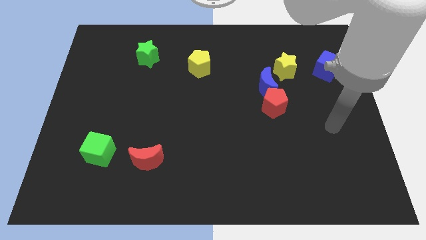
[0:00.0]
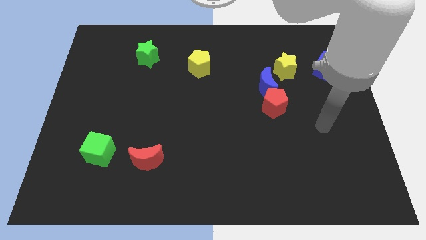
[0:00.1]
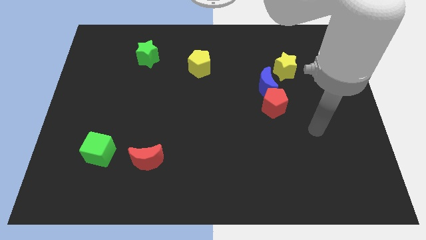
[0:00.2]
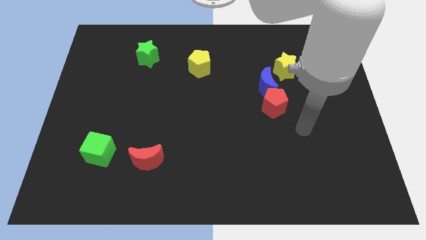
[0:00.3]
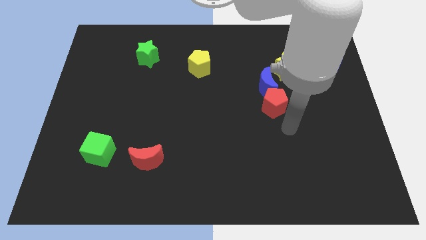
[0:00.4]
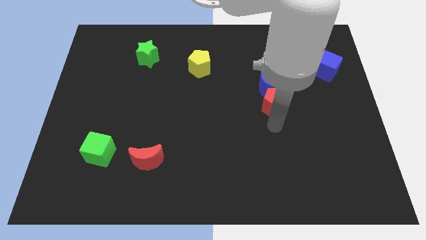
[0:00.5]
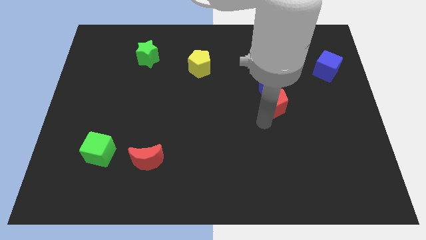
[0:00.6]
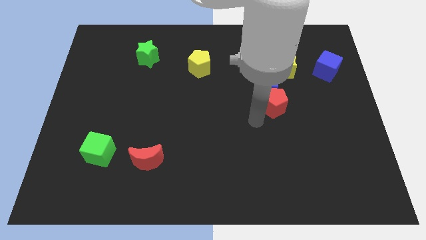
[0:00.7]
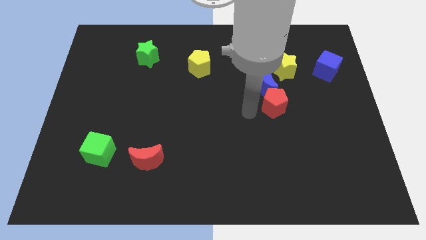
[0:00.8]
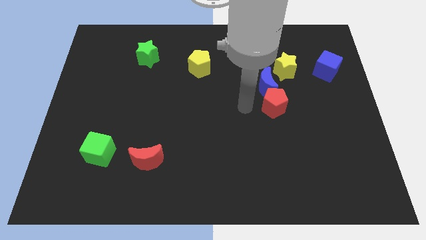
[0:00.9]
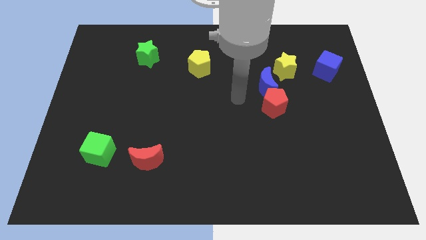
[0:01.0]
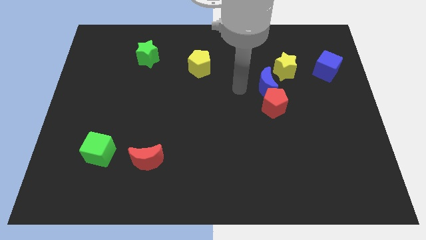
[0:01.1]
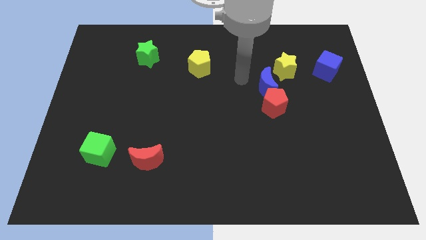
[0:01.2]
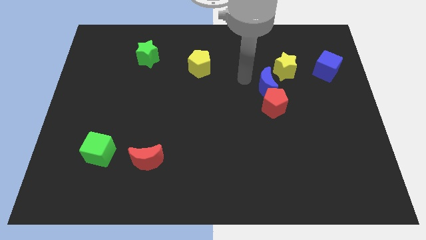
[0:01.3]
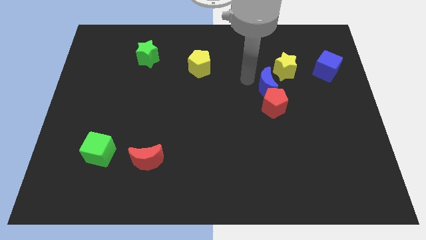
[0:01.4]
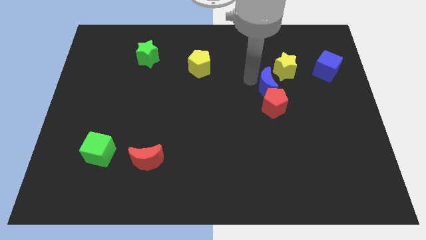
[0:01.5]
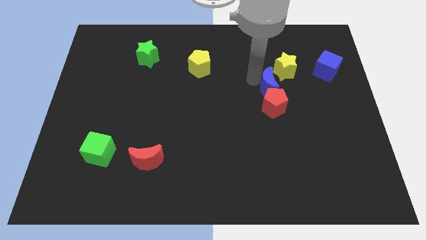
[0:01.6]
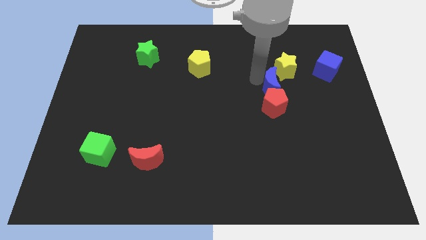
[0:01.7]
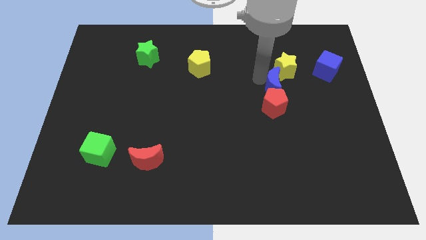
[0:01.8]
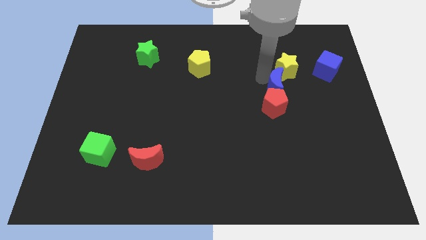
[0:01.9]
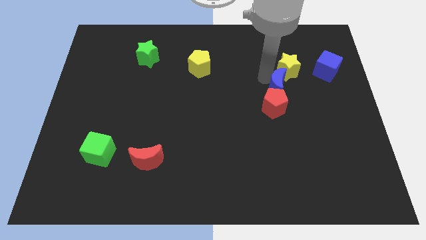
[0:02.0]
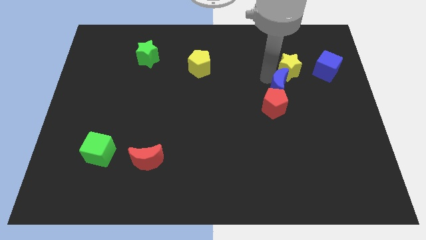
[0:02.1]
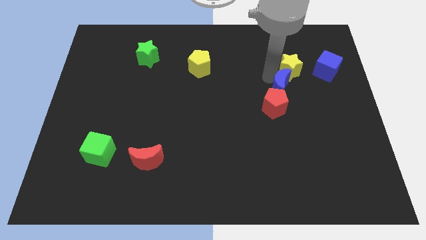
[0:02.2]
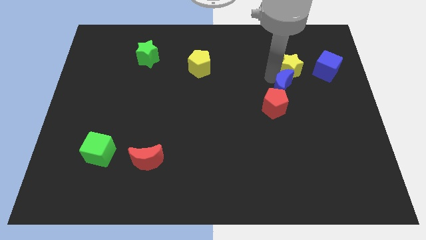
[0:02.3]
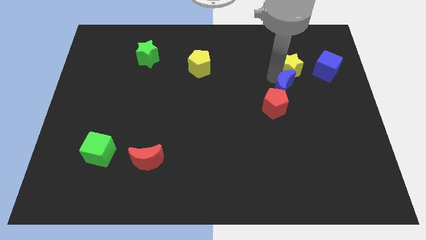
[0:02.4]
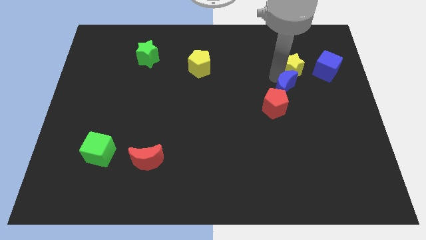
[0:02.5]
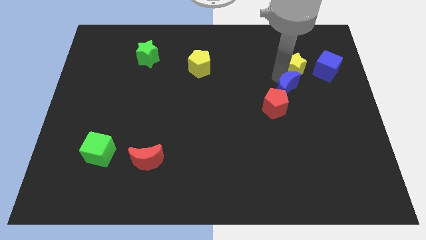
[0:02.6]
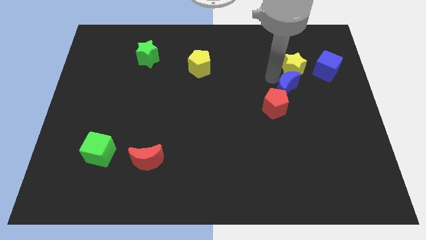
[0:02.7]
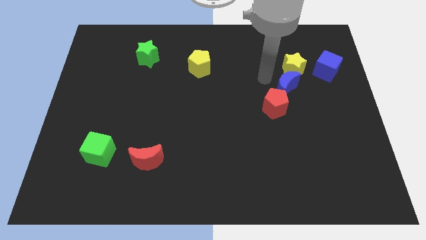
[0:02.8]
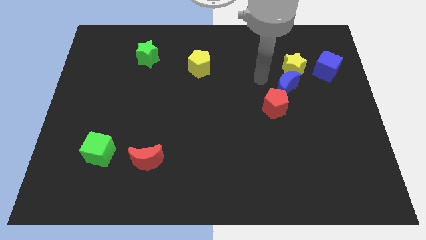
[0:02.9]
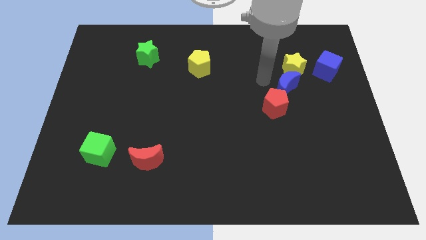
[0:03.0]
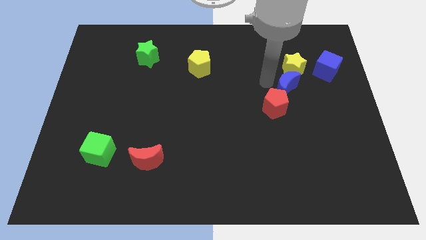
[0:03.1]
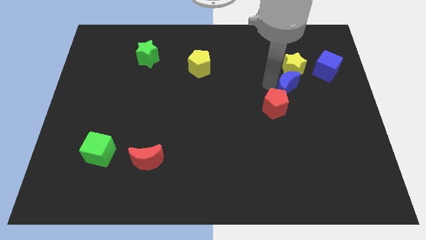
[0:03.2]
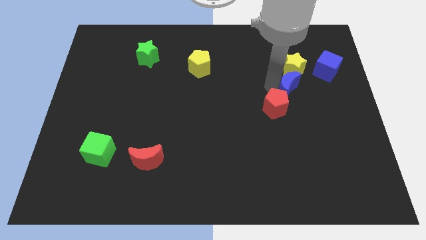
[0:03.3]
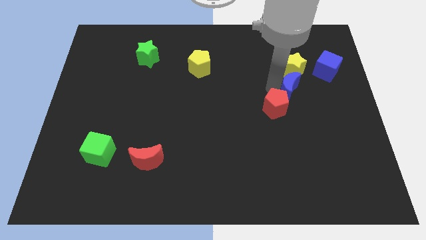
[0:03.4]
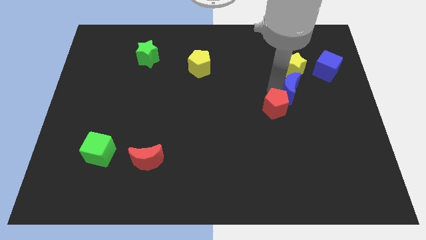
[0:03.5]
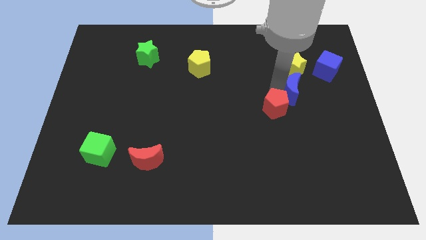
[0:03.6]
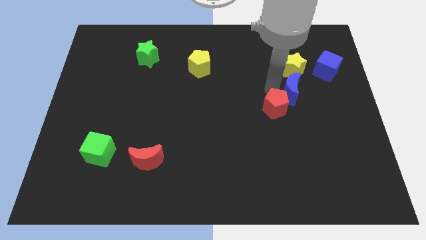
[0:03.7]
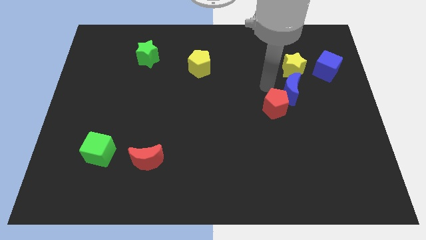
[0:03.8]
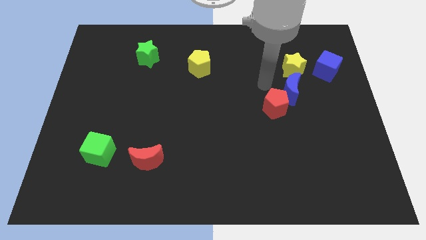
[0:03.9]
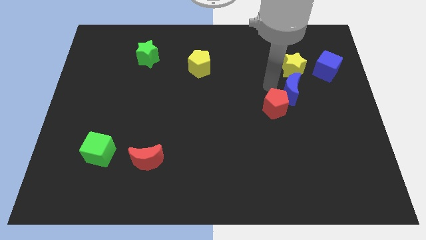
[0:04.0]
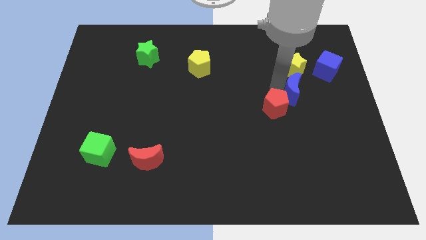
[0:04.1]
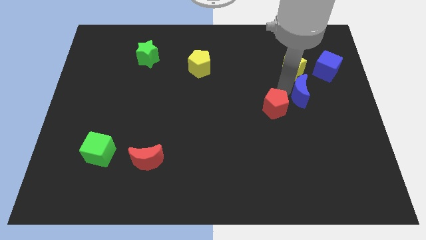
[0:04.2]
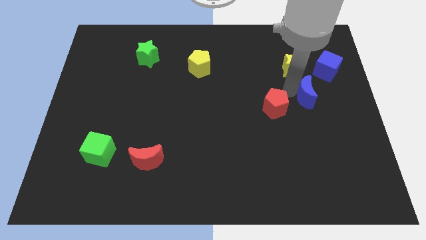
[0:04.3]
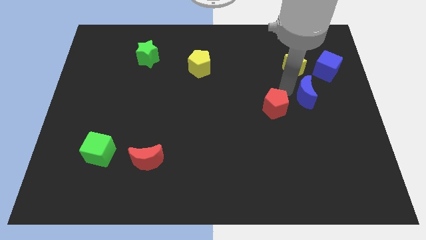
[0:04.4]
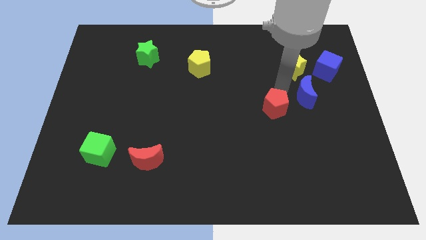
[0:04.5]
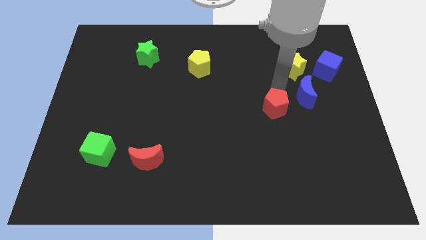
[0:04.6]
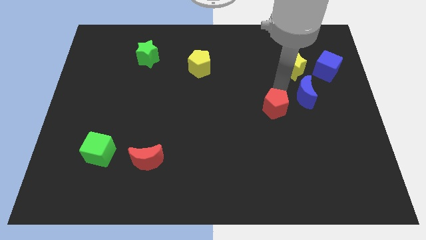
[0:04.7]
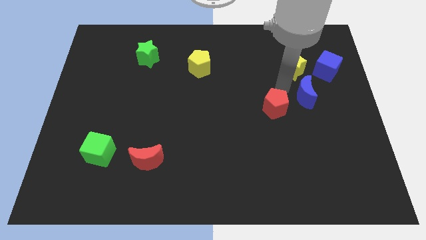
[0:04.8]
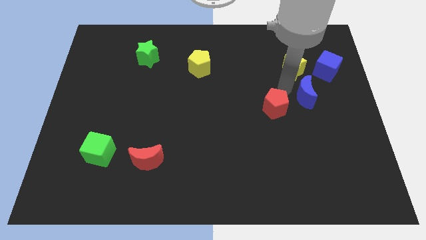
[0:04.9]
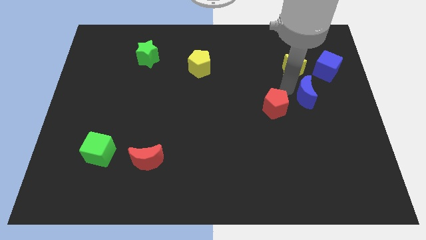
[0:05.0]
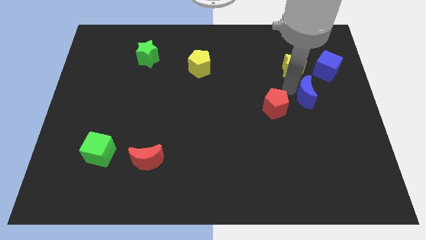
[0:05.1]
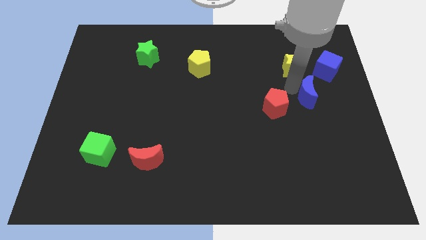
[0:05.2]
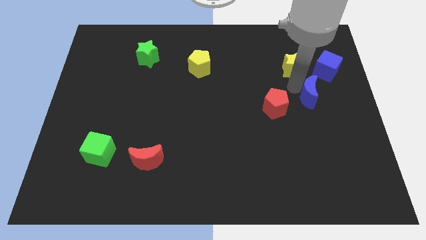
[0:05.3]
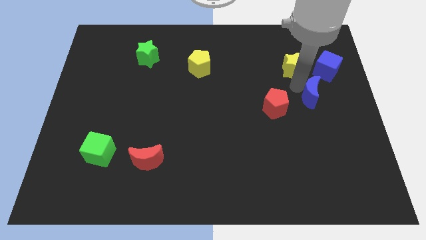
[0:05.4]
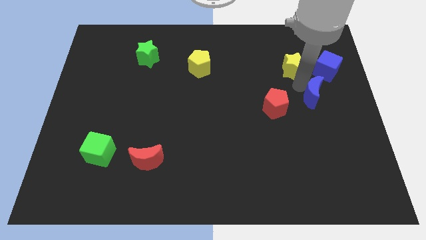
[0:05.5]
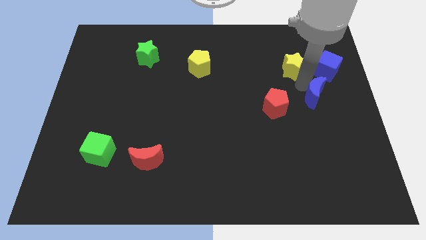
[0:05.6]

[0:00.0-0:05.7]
put the blue moon to the bottom of the blue cube

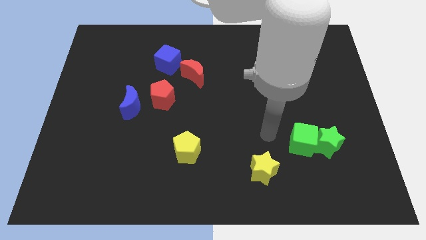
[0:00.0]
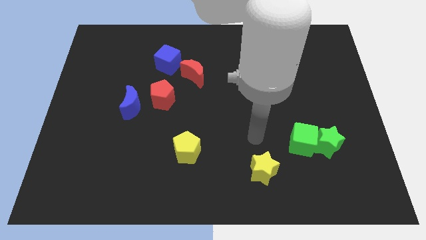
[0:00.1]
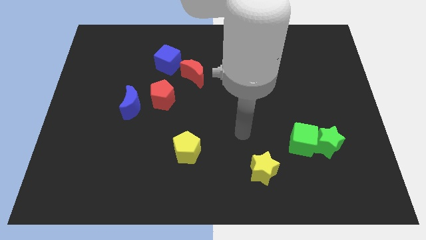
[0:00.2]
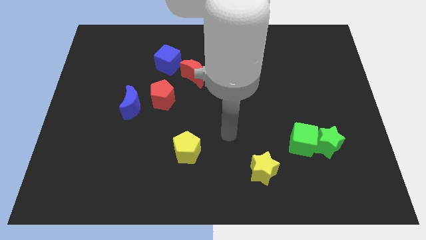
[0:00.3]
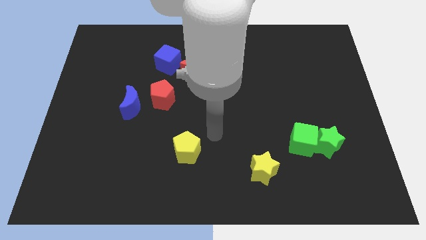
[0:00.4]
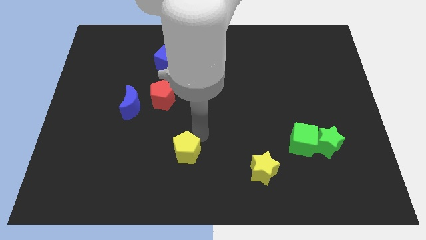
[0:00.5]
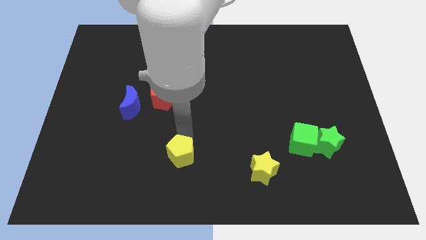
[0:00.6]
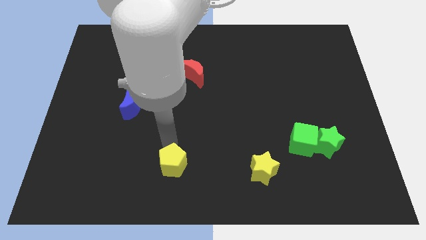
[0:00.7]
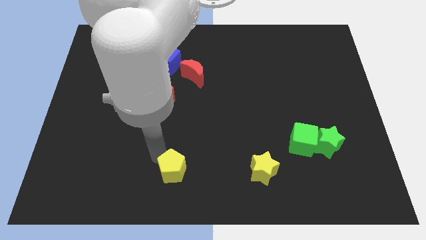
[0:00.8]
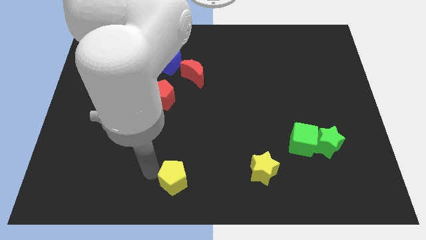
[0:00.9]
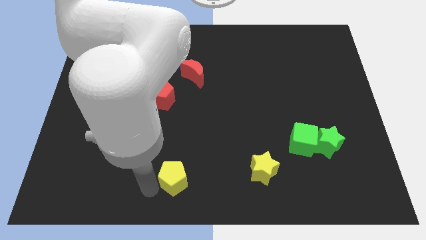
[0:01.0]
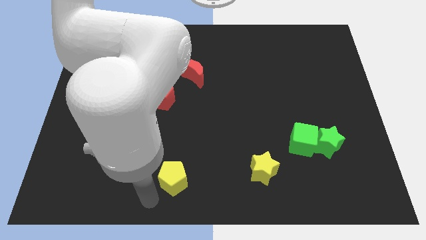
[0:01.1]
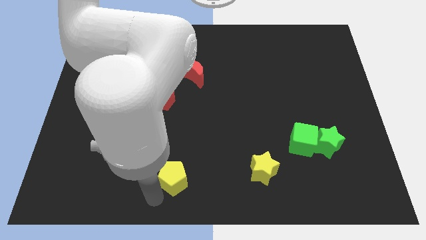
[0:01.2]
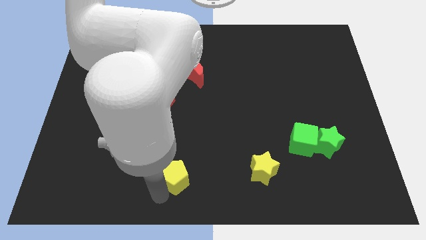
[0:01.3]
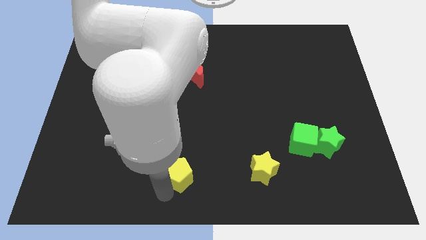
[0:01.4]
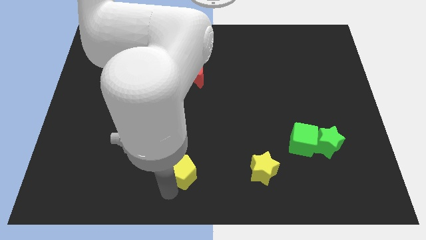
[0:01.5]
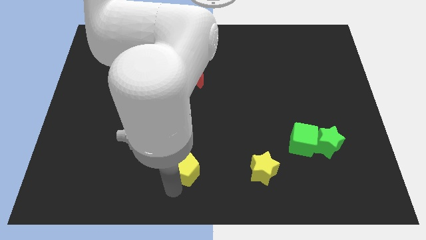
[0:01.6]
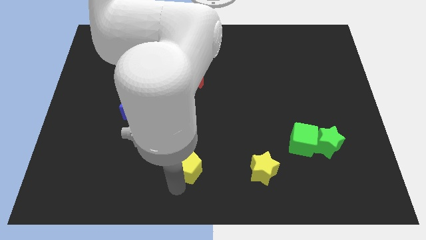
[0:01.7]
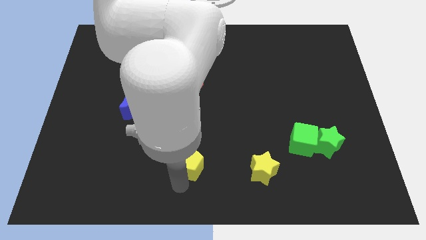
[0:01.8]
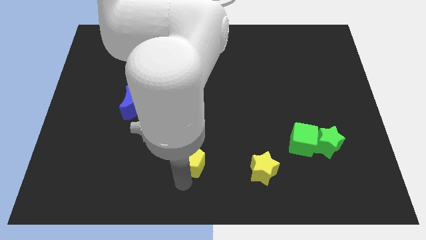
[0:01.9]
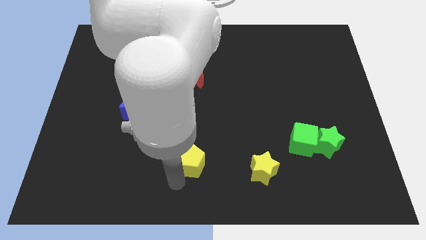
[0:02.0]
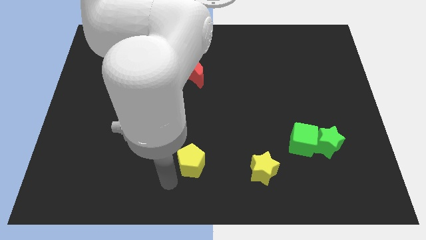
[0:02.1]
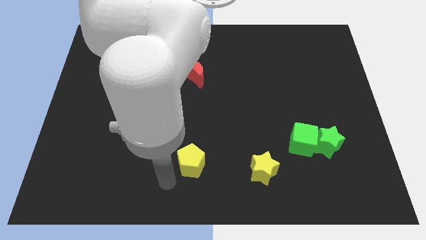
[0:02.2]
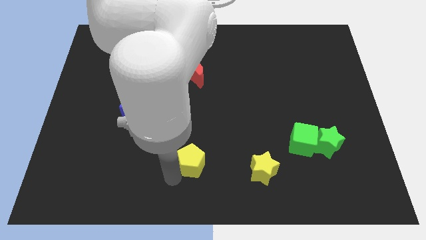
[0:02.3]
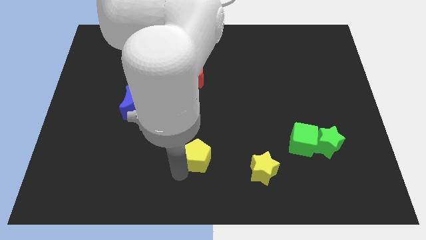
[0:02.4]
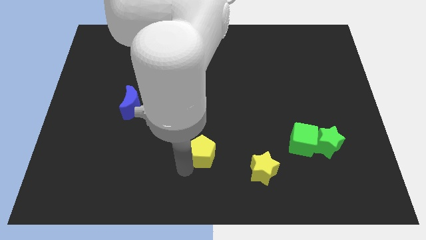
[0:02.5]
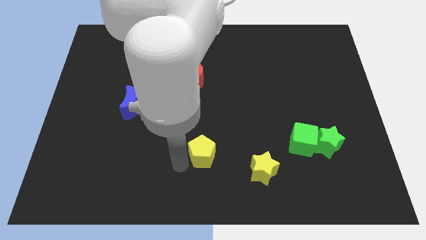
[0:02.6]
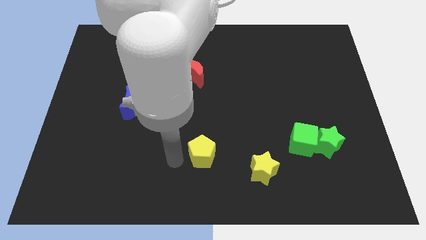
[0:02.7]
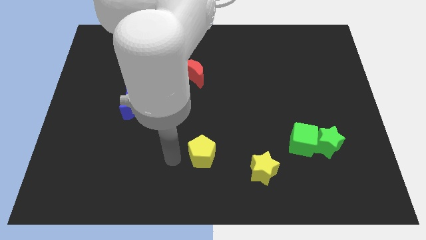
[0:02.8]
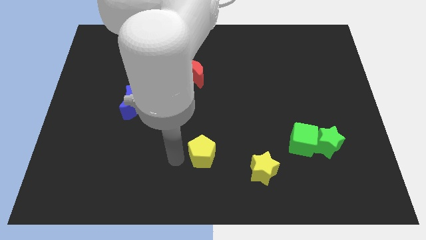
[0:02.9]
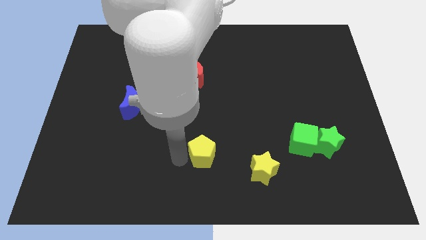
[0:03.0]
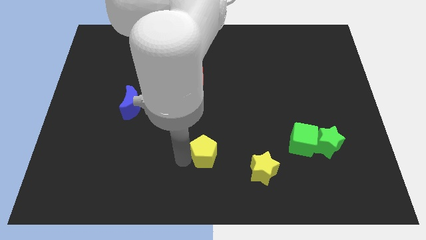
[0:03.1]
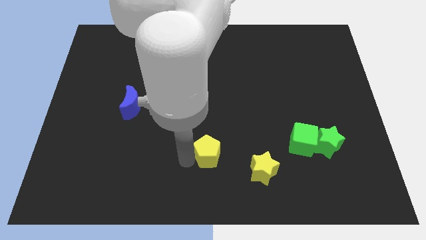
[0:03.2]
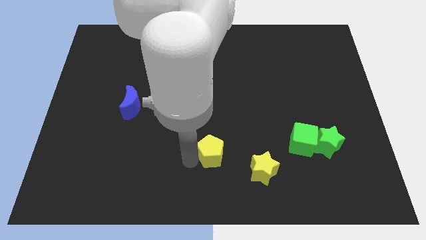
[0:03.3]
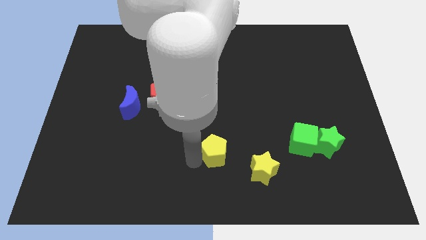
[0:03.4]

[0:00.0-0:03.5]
slide the yellow pentagon to the top left side of the yellow star
